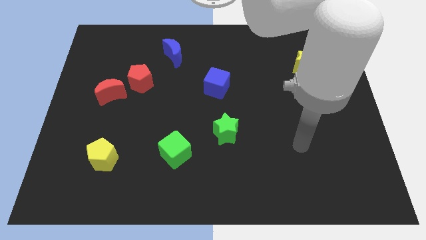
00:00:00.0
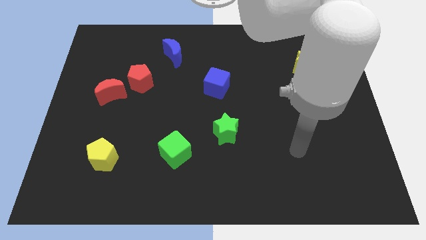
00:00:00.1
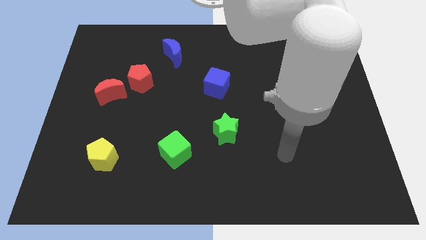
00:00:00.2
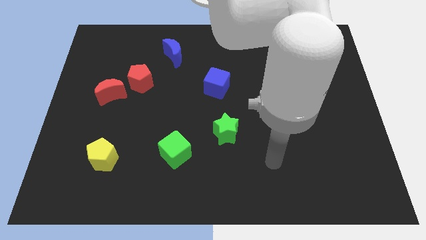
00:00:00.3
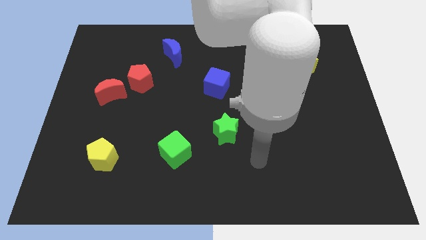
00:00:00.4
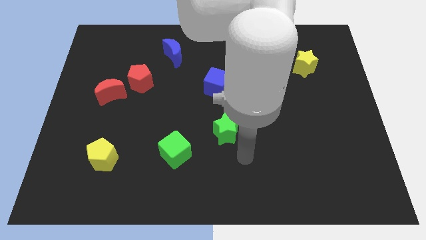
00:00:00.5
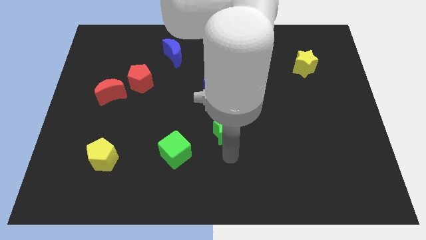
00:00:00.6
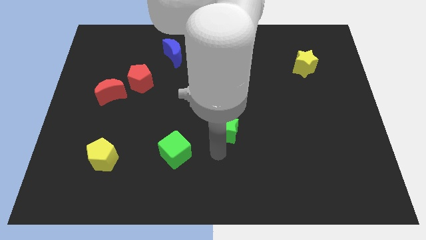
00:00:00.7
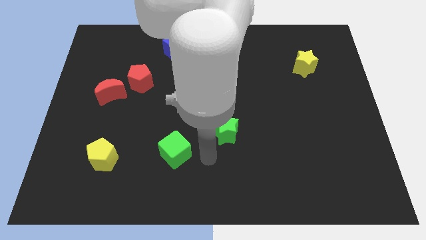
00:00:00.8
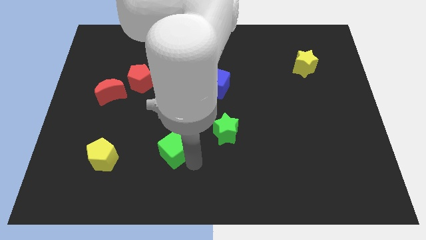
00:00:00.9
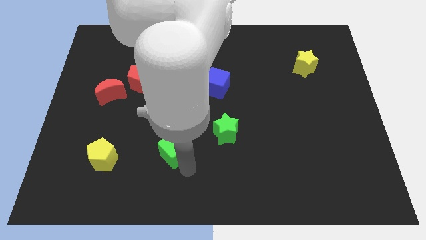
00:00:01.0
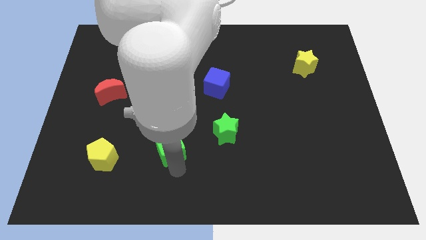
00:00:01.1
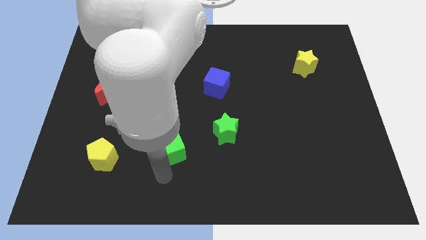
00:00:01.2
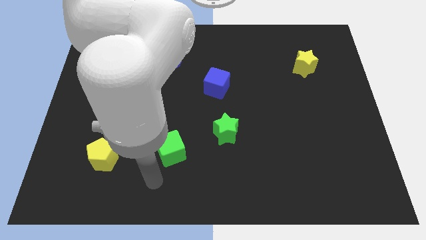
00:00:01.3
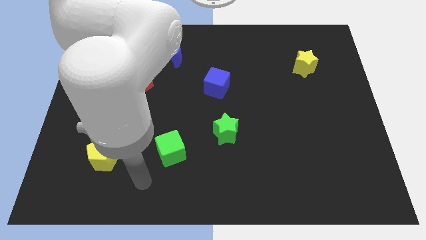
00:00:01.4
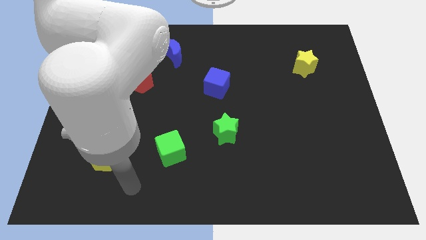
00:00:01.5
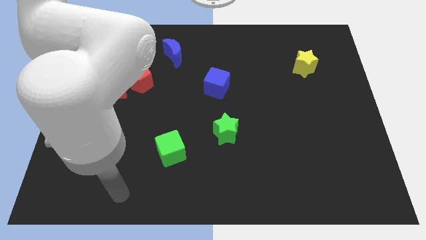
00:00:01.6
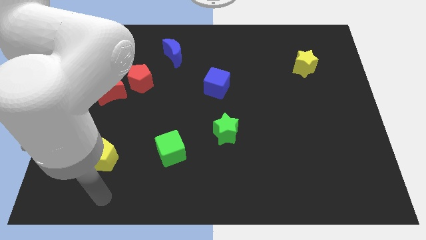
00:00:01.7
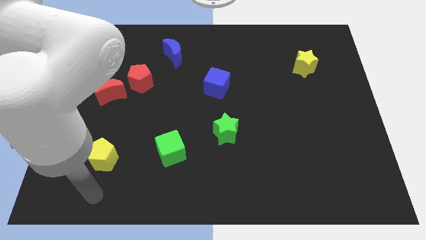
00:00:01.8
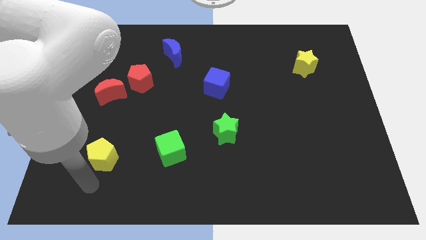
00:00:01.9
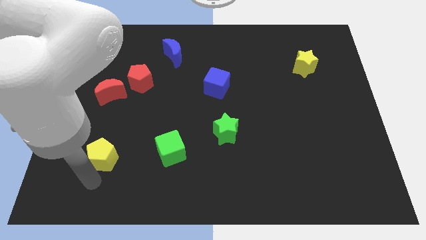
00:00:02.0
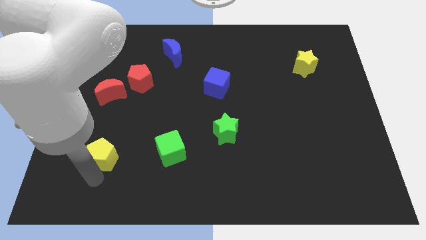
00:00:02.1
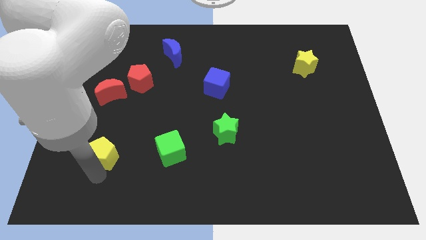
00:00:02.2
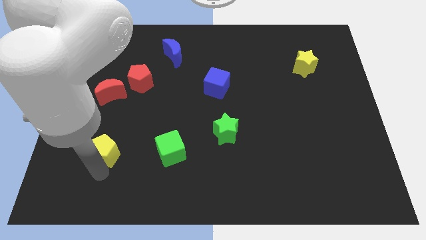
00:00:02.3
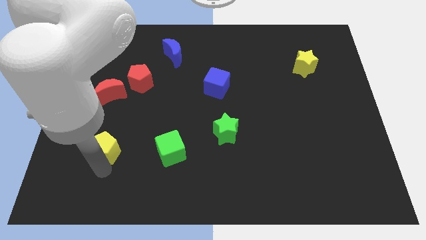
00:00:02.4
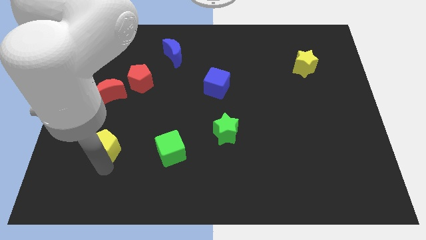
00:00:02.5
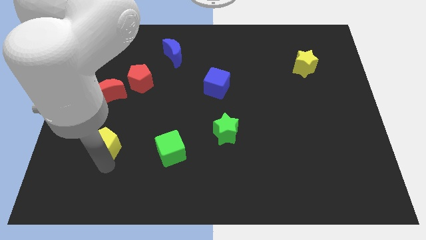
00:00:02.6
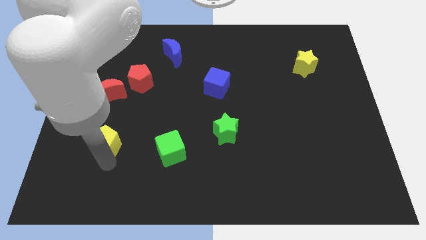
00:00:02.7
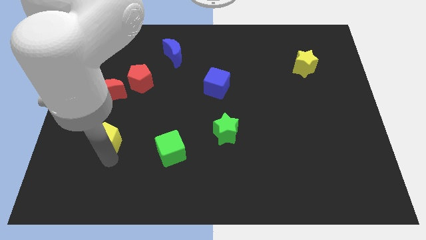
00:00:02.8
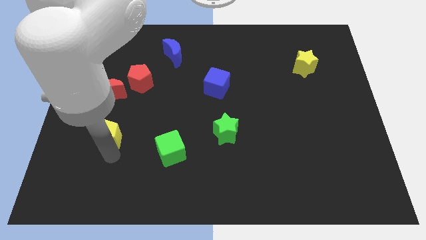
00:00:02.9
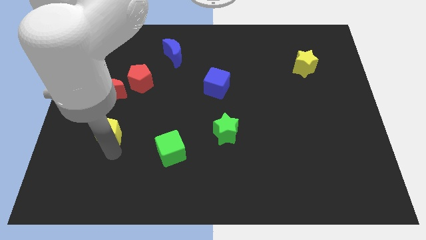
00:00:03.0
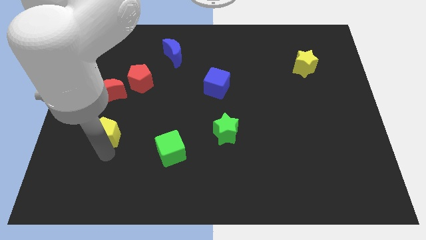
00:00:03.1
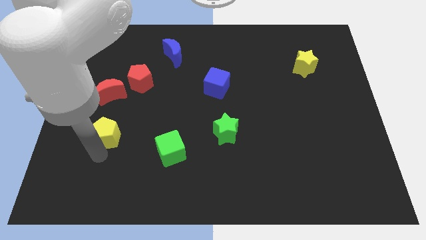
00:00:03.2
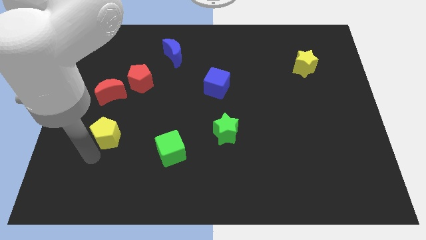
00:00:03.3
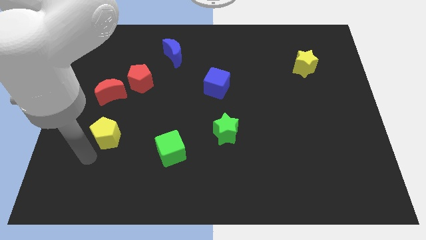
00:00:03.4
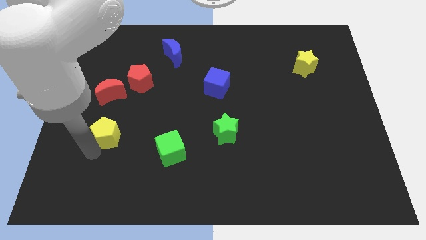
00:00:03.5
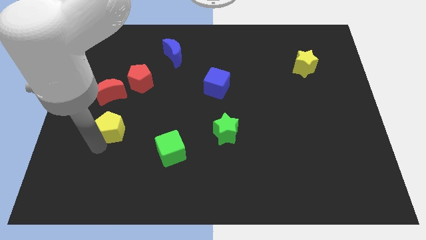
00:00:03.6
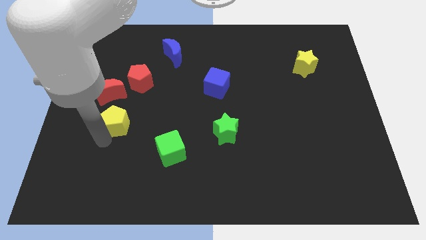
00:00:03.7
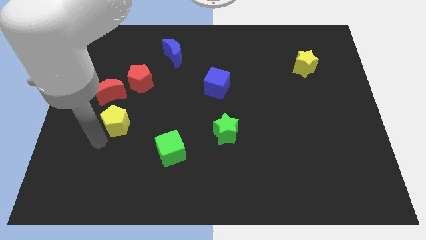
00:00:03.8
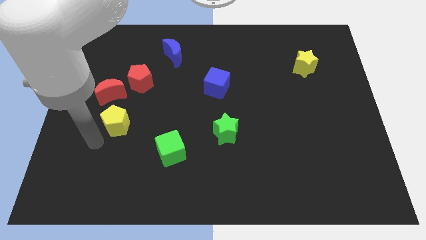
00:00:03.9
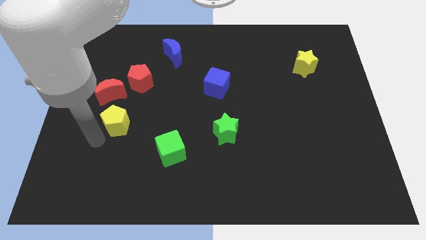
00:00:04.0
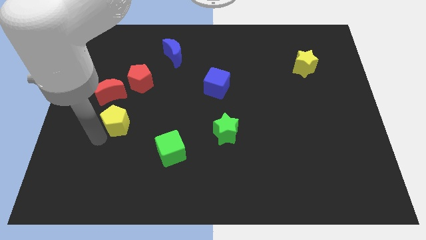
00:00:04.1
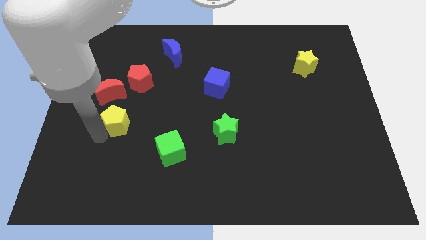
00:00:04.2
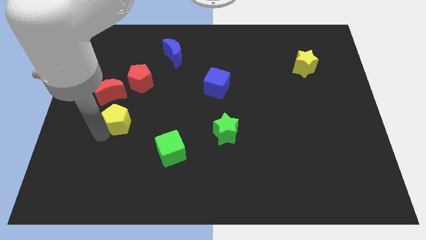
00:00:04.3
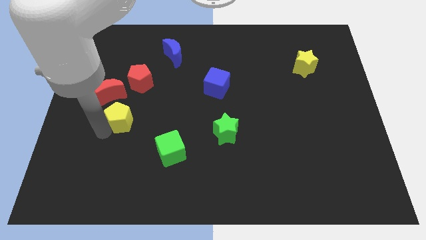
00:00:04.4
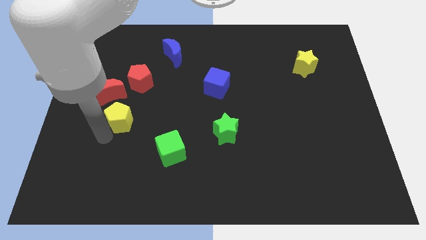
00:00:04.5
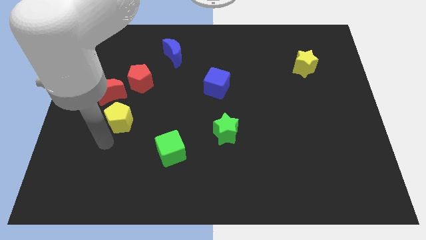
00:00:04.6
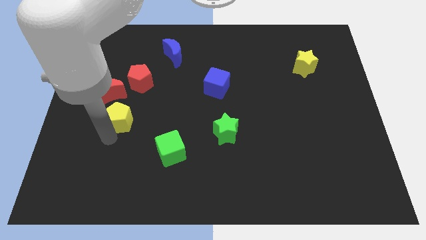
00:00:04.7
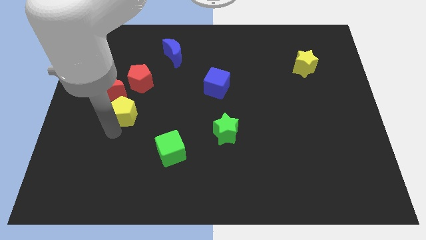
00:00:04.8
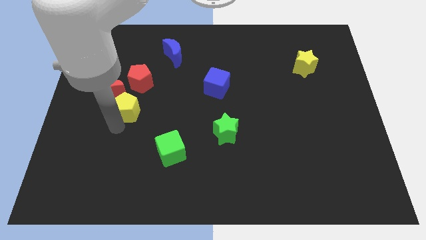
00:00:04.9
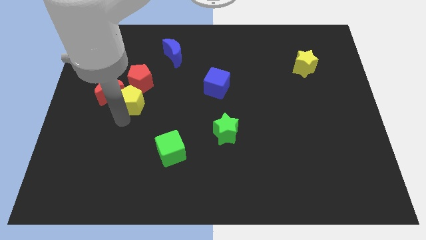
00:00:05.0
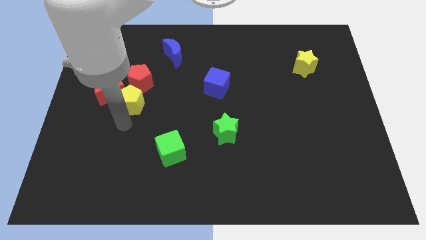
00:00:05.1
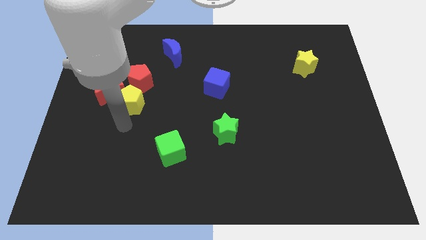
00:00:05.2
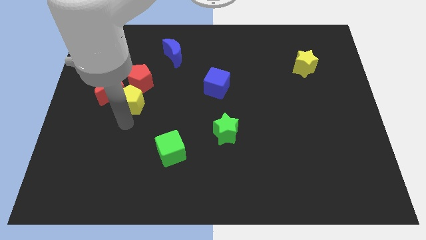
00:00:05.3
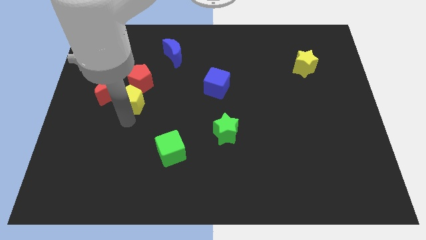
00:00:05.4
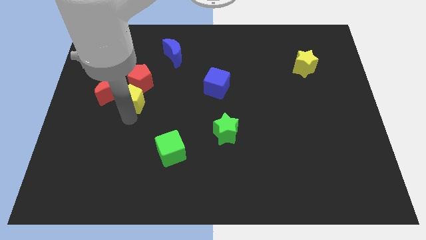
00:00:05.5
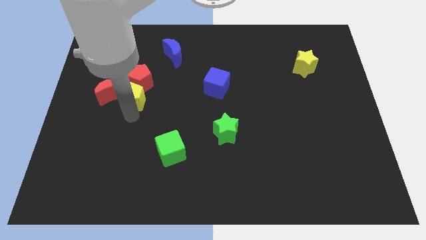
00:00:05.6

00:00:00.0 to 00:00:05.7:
push the yellow pentagon to the red pentagon

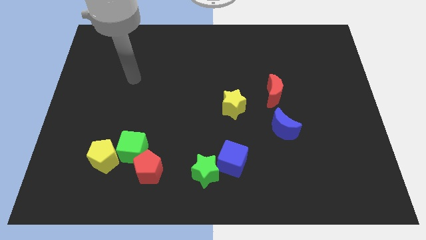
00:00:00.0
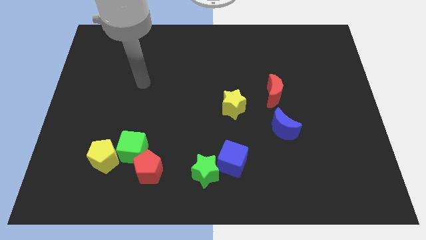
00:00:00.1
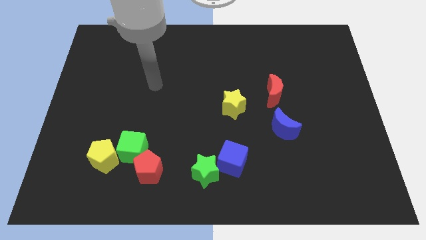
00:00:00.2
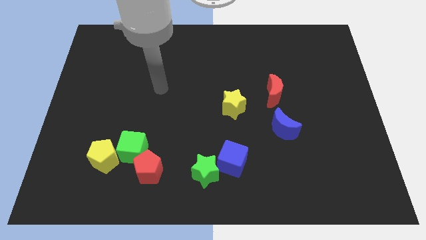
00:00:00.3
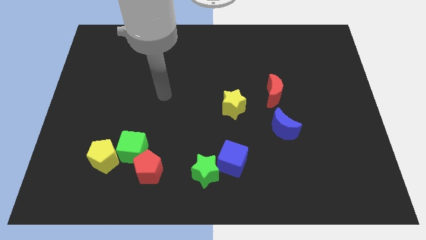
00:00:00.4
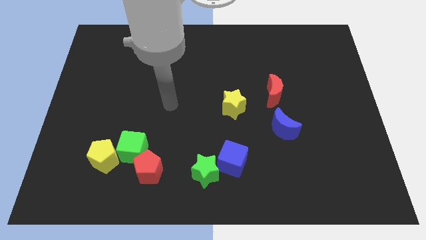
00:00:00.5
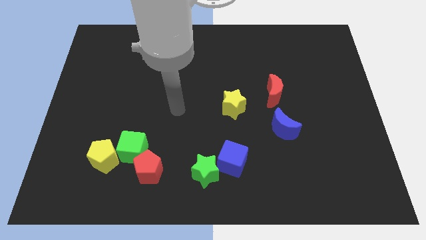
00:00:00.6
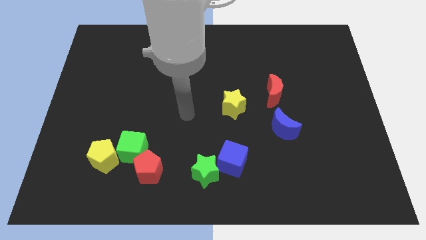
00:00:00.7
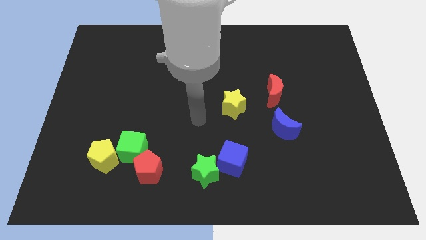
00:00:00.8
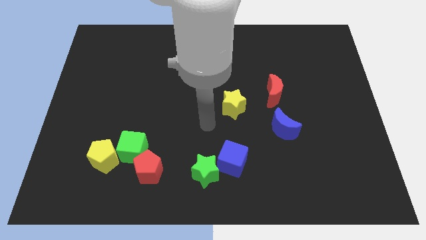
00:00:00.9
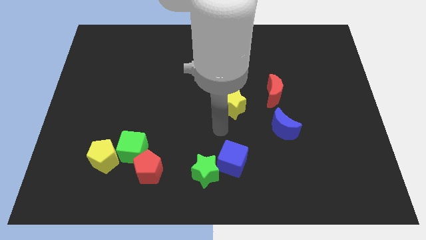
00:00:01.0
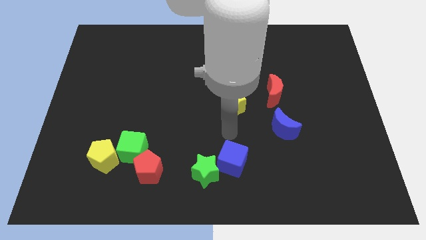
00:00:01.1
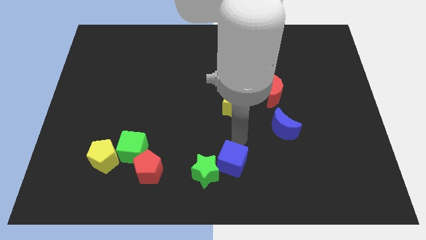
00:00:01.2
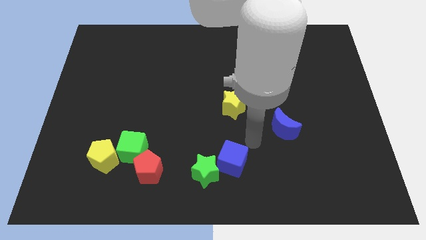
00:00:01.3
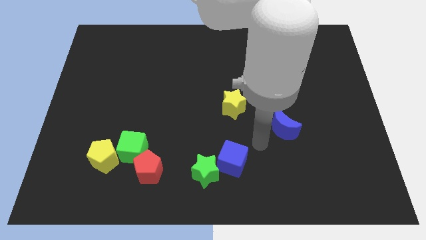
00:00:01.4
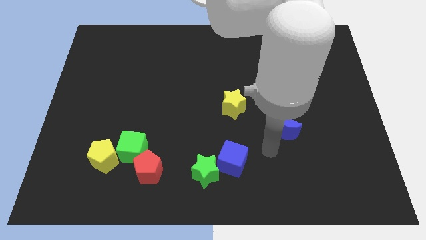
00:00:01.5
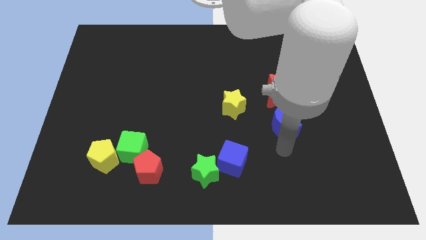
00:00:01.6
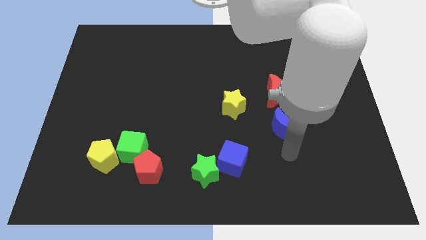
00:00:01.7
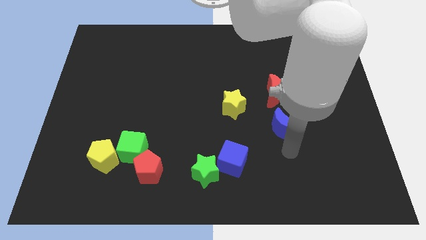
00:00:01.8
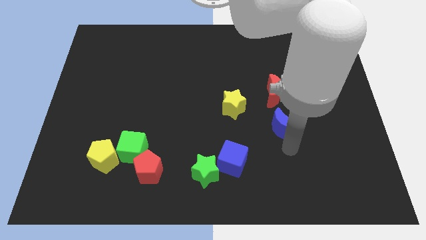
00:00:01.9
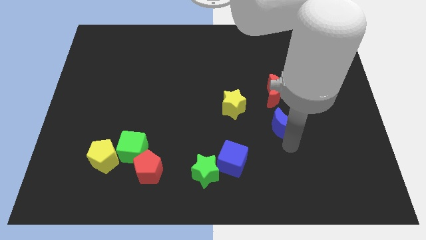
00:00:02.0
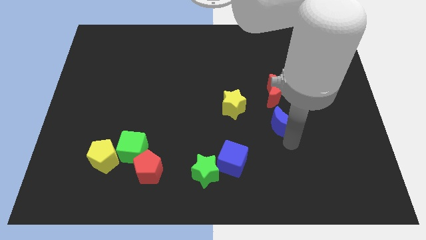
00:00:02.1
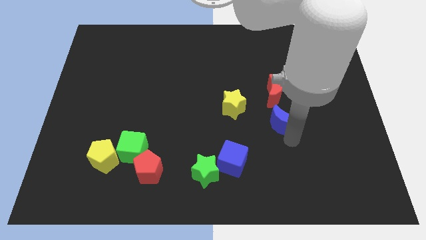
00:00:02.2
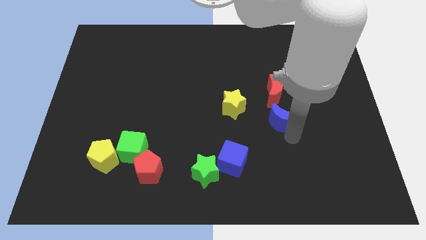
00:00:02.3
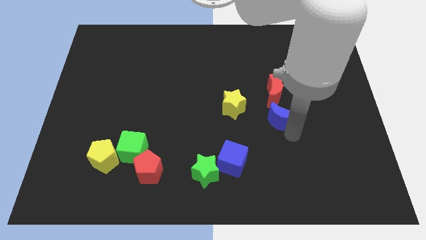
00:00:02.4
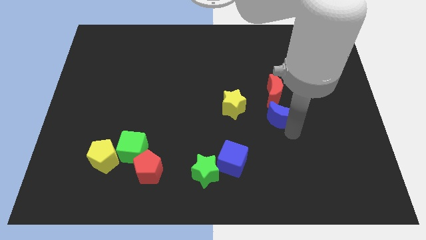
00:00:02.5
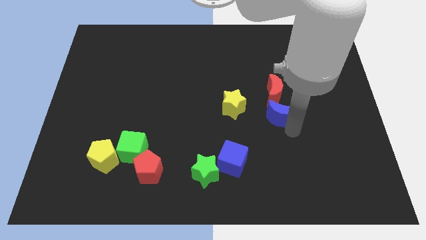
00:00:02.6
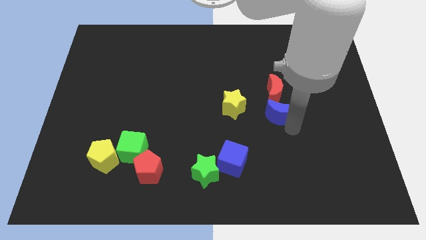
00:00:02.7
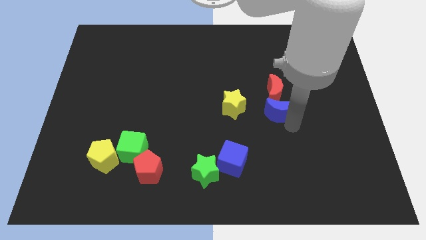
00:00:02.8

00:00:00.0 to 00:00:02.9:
slide the blue moon next to the red moon
